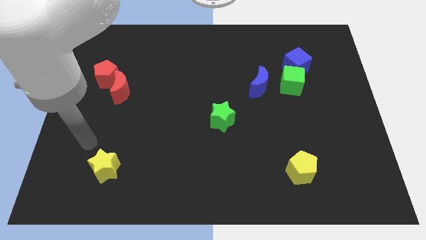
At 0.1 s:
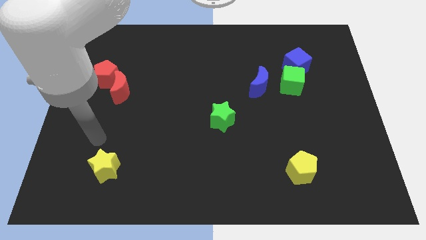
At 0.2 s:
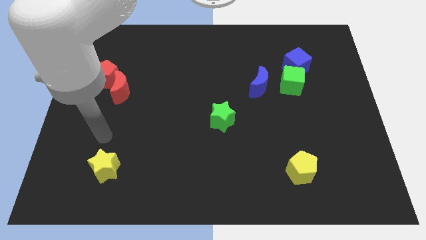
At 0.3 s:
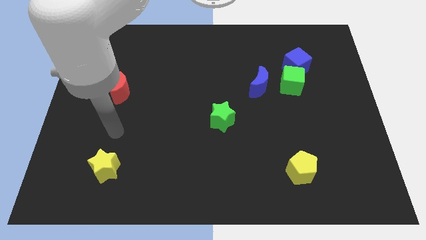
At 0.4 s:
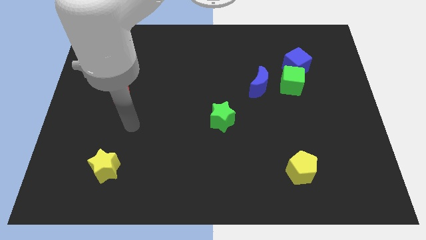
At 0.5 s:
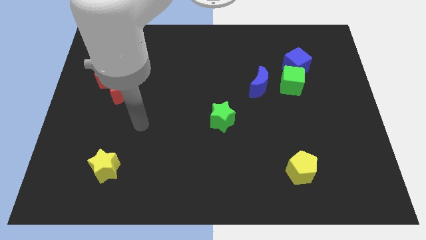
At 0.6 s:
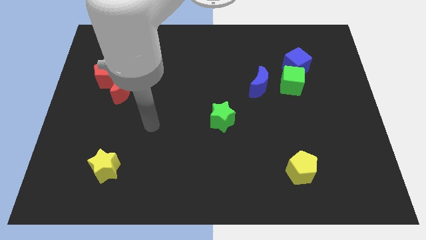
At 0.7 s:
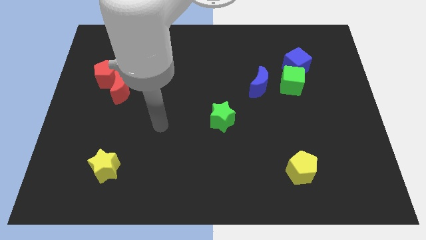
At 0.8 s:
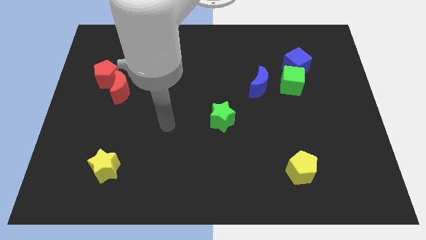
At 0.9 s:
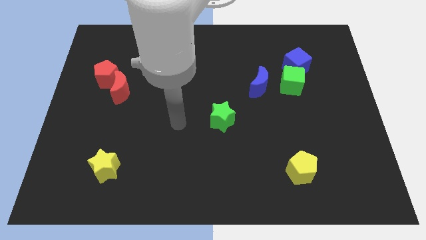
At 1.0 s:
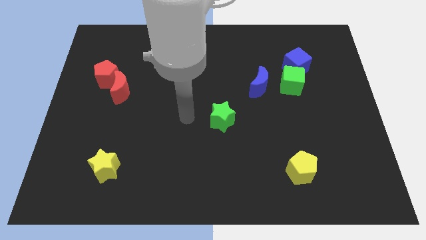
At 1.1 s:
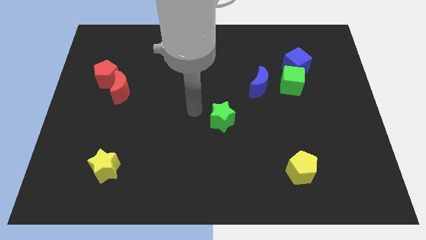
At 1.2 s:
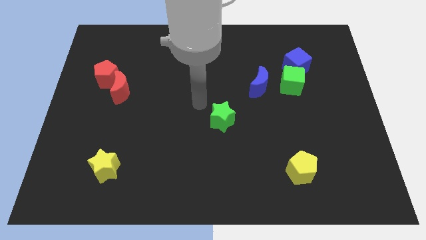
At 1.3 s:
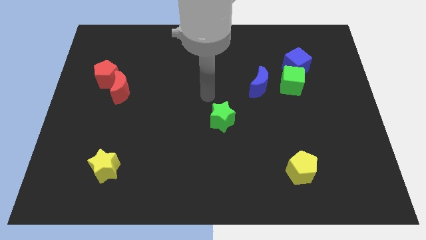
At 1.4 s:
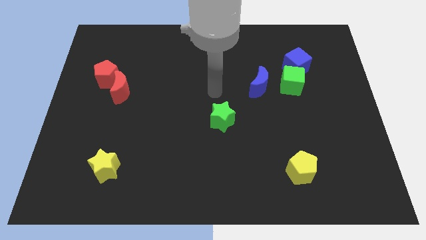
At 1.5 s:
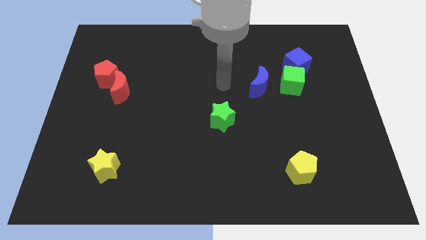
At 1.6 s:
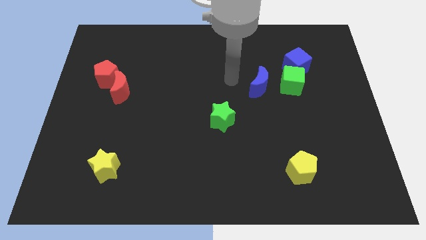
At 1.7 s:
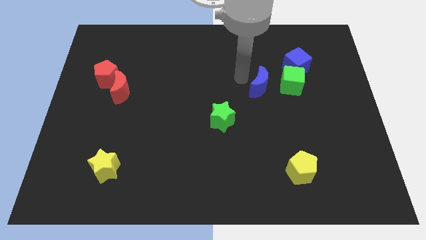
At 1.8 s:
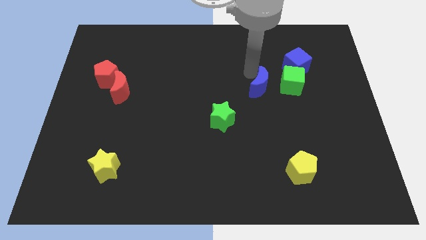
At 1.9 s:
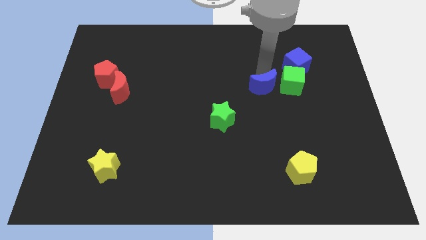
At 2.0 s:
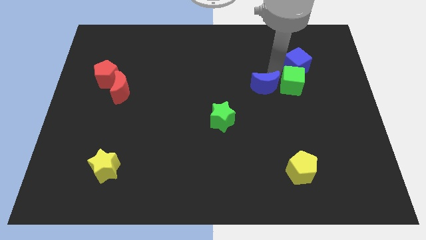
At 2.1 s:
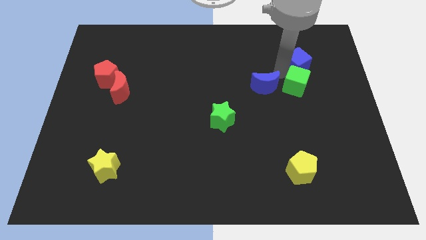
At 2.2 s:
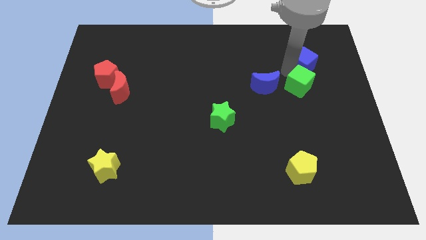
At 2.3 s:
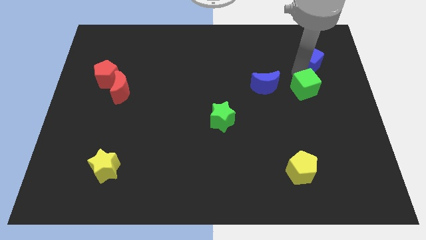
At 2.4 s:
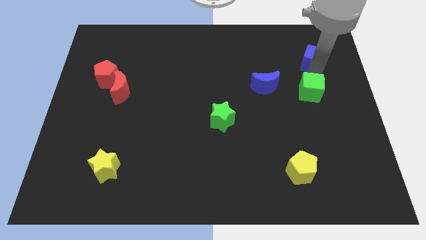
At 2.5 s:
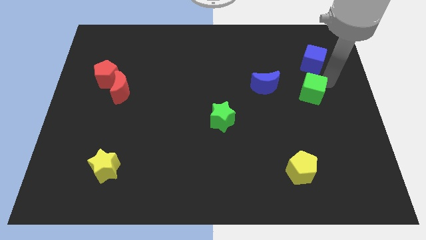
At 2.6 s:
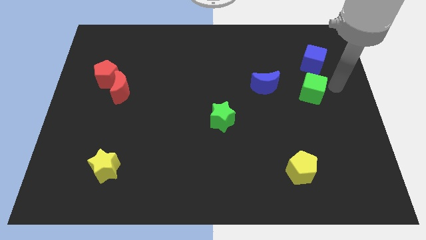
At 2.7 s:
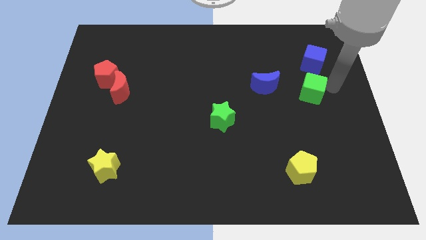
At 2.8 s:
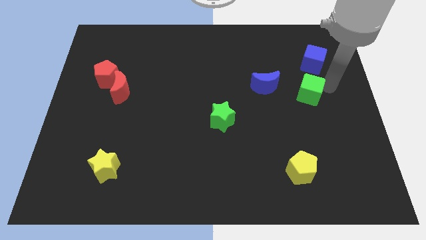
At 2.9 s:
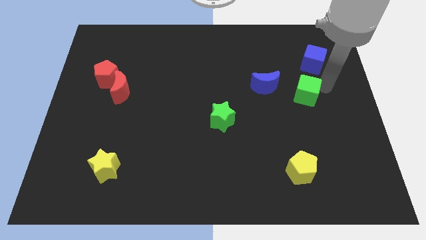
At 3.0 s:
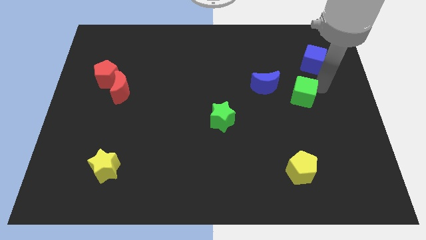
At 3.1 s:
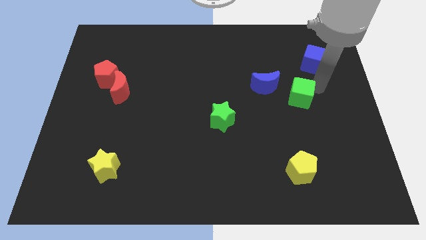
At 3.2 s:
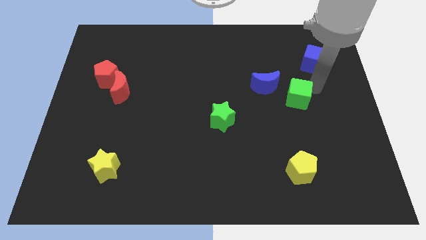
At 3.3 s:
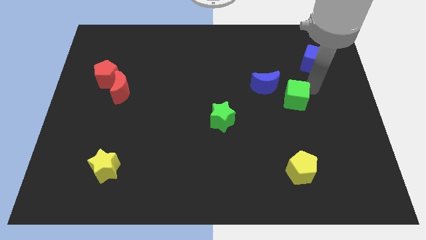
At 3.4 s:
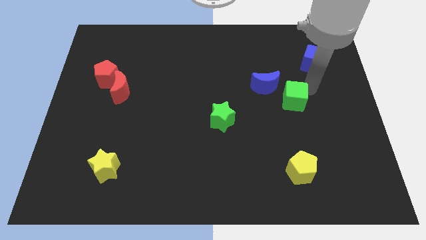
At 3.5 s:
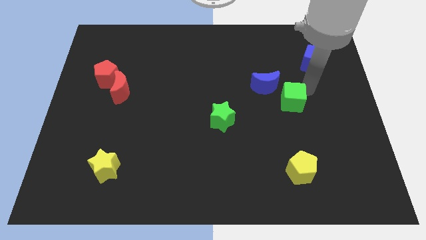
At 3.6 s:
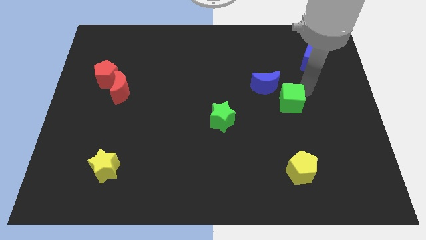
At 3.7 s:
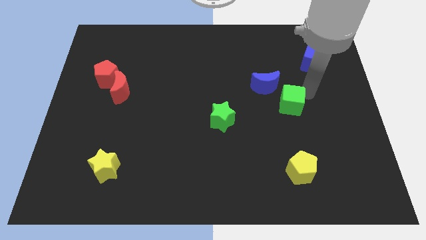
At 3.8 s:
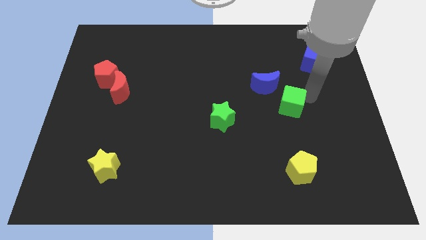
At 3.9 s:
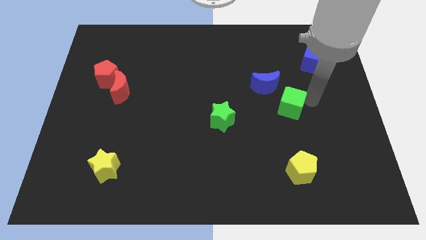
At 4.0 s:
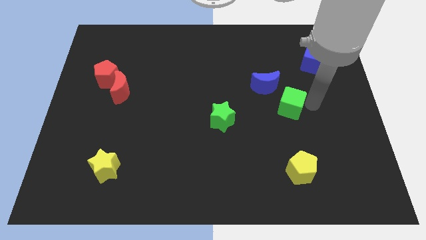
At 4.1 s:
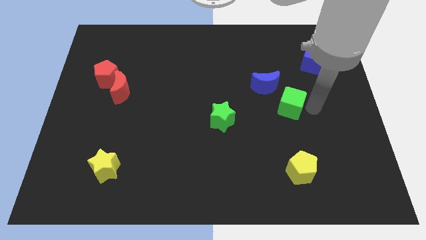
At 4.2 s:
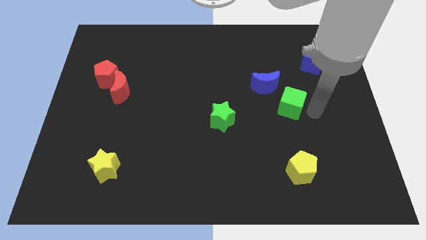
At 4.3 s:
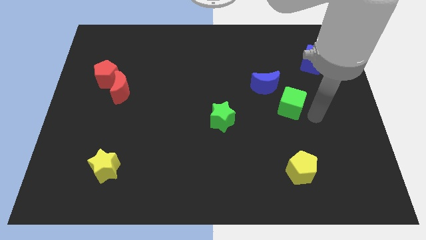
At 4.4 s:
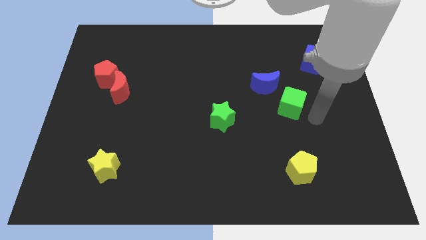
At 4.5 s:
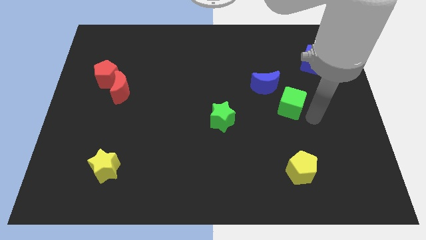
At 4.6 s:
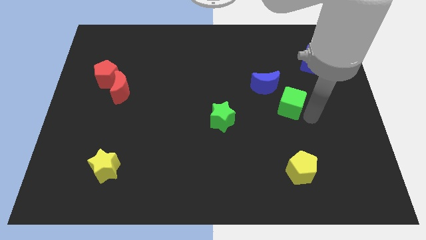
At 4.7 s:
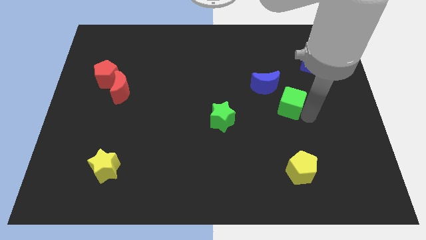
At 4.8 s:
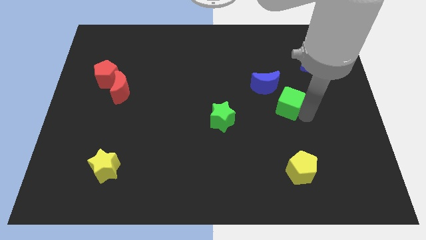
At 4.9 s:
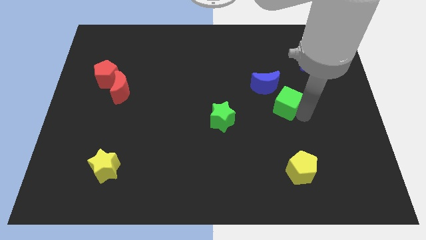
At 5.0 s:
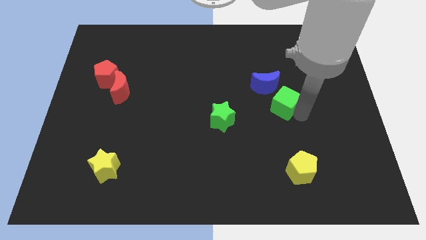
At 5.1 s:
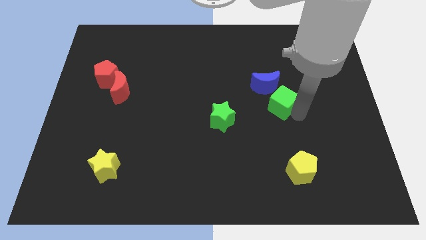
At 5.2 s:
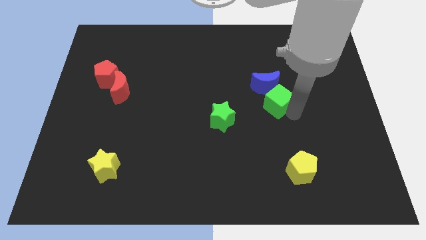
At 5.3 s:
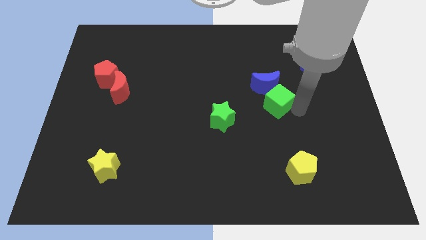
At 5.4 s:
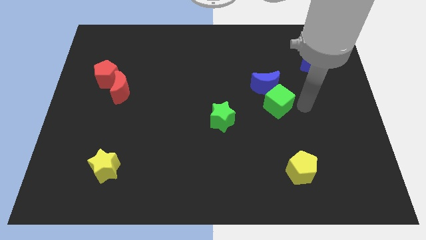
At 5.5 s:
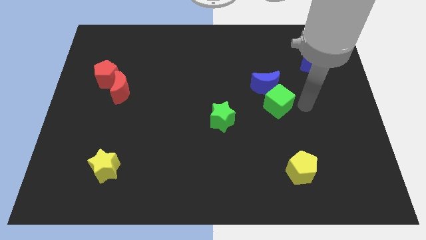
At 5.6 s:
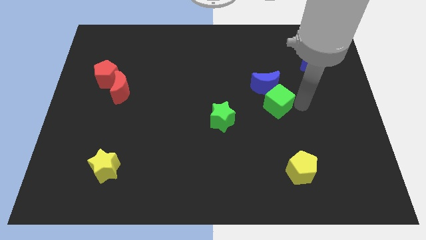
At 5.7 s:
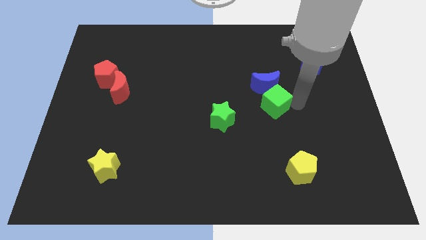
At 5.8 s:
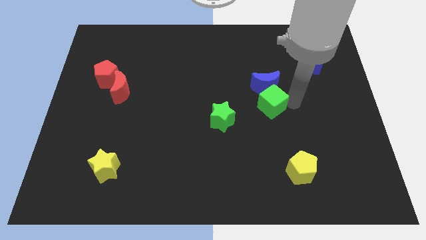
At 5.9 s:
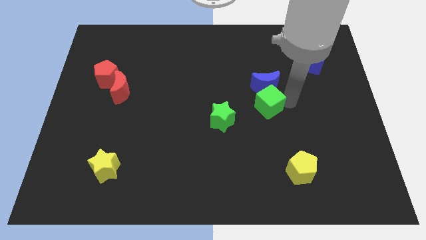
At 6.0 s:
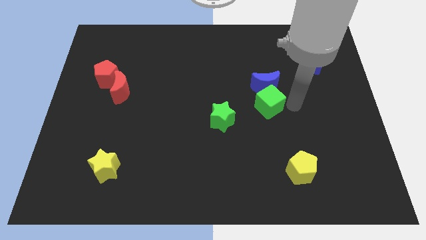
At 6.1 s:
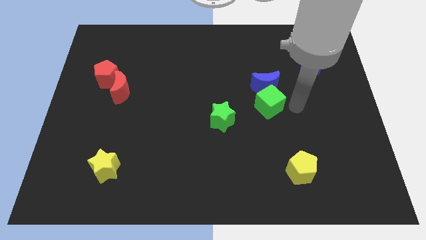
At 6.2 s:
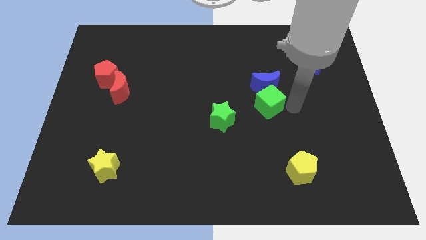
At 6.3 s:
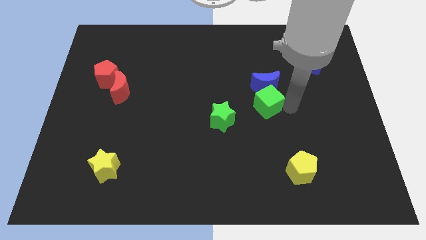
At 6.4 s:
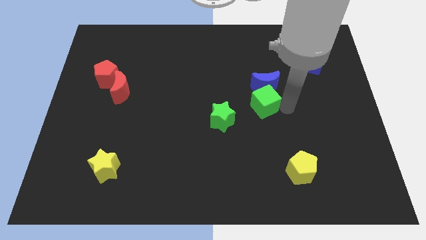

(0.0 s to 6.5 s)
move the green cube to the center of the board

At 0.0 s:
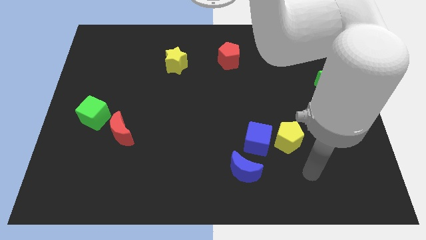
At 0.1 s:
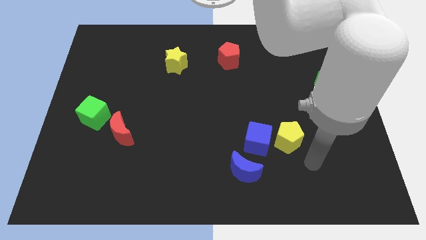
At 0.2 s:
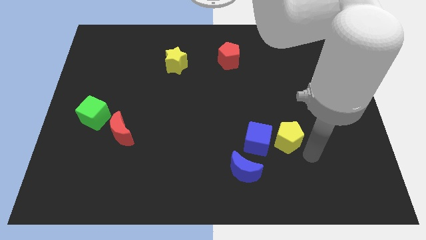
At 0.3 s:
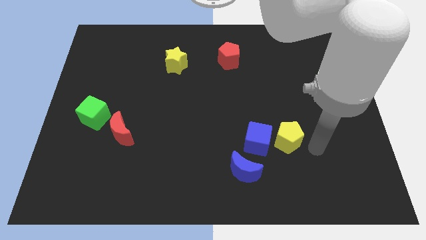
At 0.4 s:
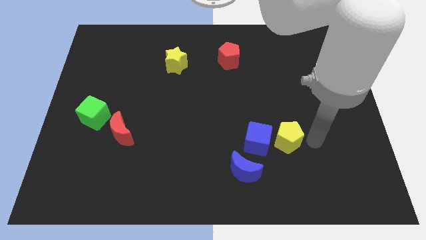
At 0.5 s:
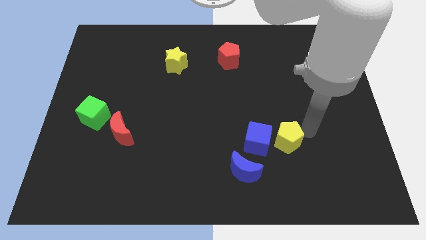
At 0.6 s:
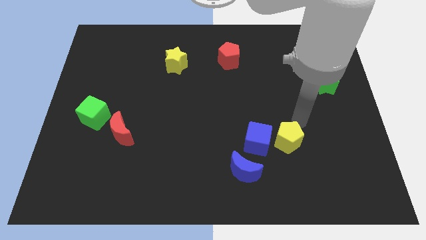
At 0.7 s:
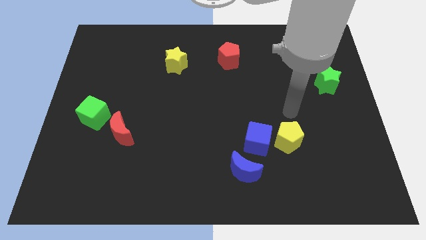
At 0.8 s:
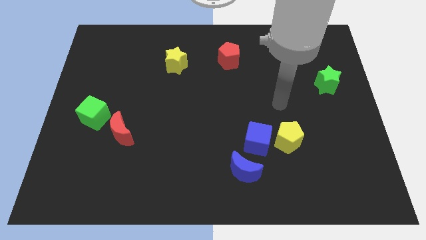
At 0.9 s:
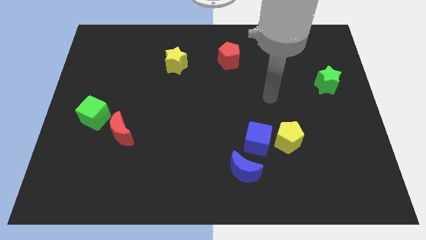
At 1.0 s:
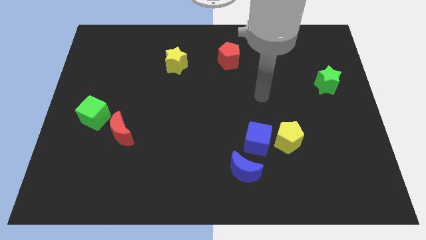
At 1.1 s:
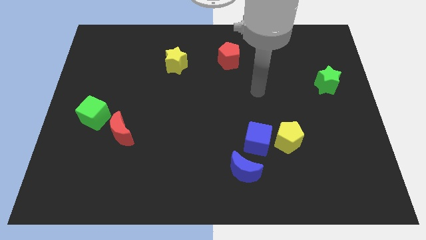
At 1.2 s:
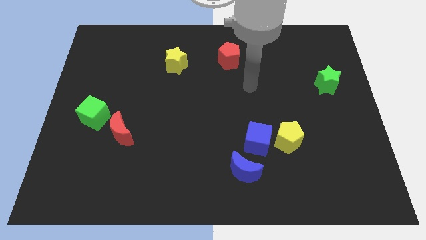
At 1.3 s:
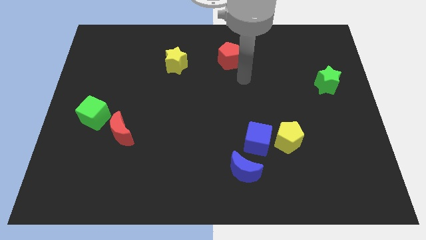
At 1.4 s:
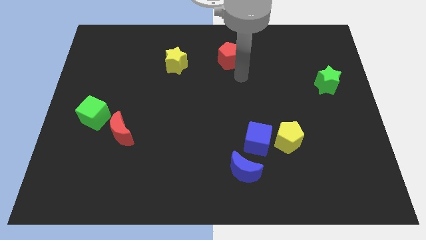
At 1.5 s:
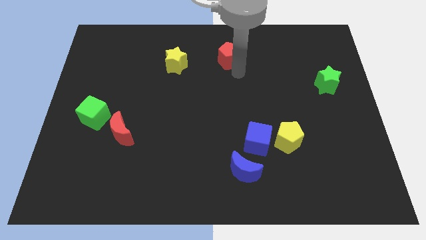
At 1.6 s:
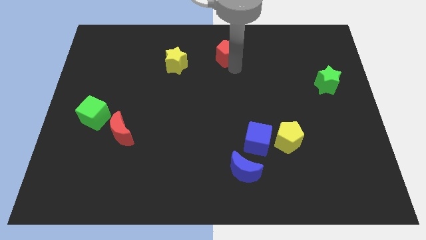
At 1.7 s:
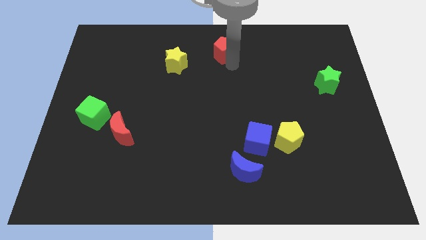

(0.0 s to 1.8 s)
push the red pentagon to the towards your base
